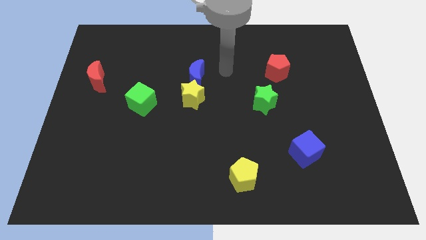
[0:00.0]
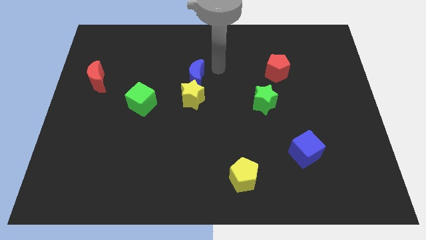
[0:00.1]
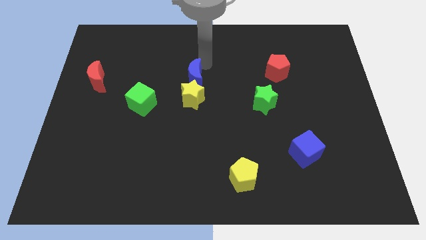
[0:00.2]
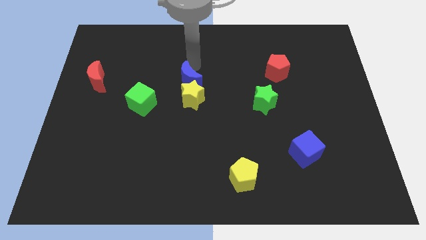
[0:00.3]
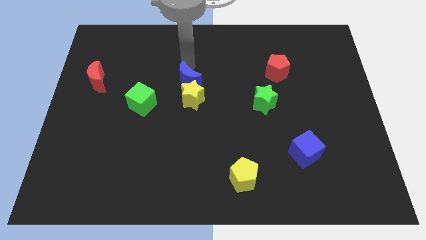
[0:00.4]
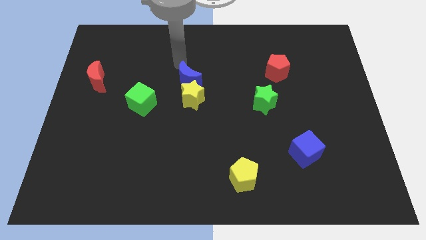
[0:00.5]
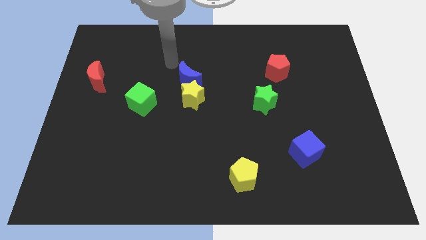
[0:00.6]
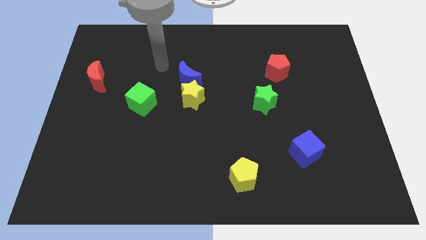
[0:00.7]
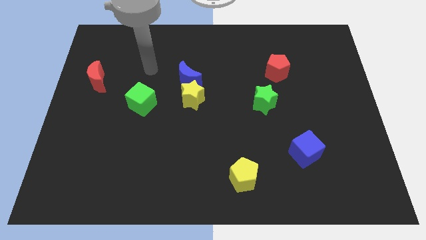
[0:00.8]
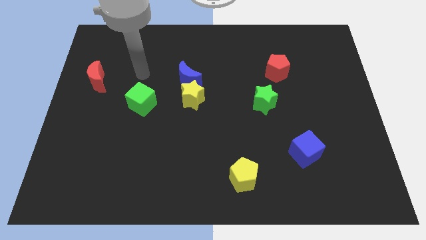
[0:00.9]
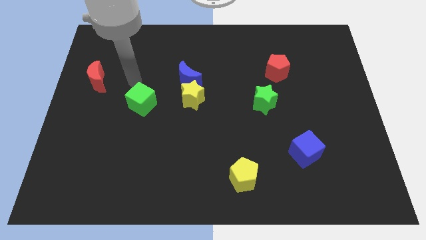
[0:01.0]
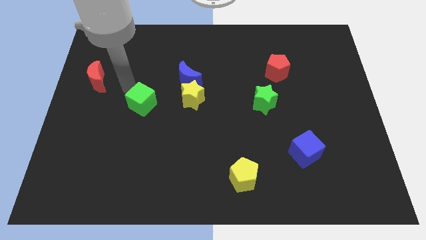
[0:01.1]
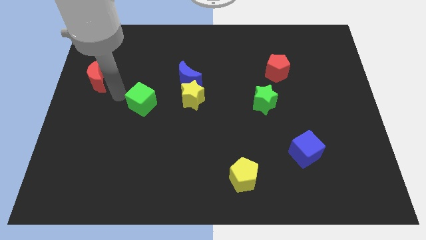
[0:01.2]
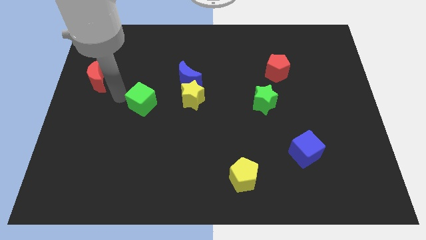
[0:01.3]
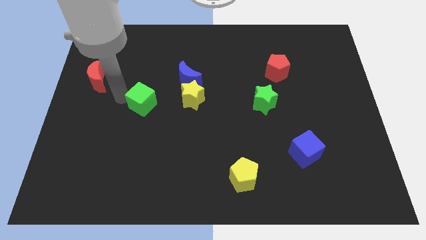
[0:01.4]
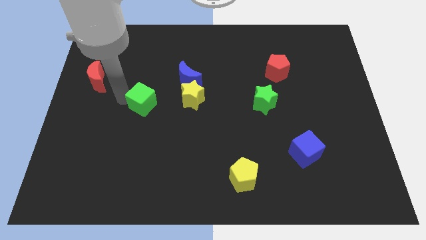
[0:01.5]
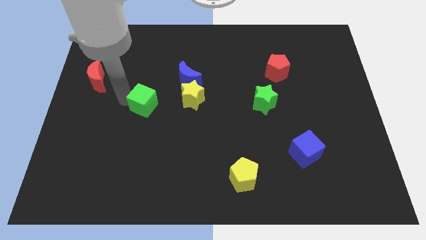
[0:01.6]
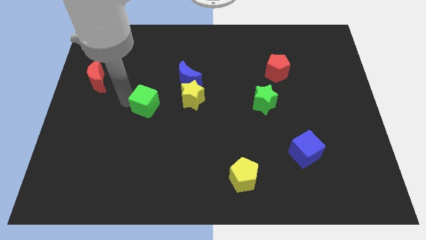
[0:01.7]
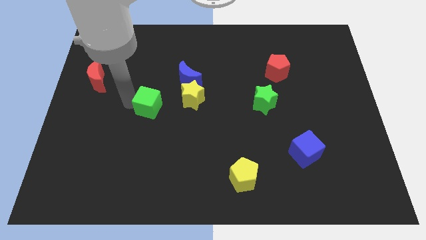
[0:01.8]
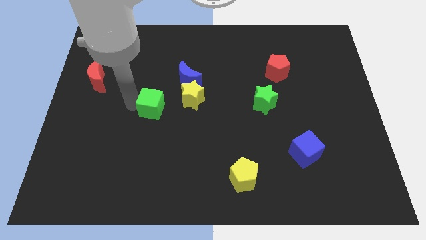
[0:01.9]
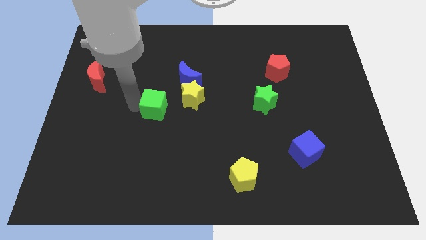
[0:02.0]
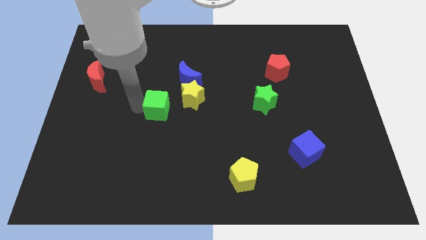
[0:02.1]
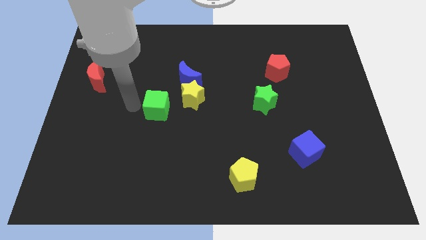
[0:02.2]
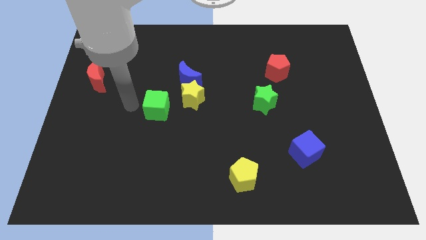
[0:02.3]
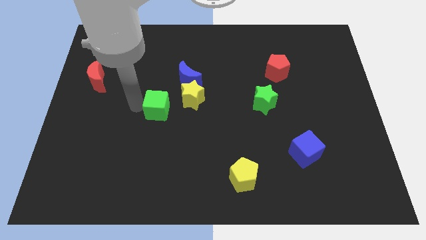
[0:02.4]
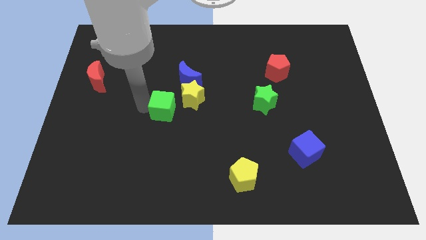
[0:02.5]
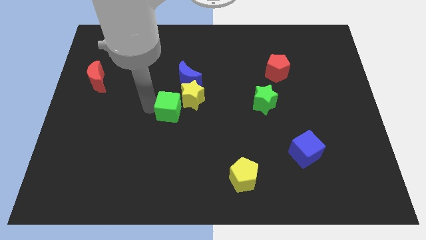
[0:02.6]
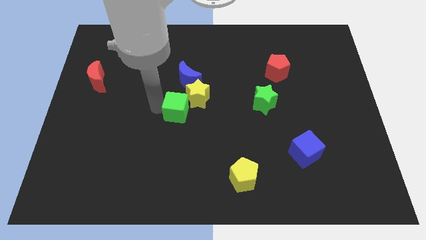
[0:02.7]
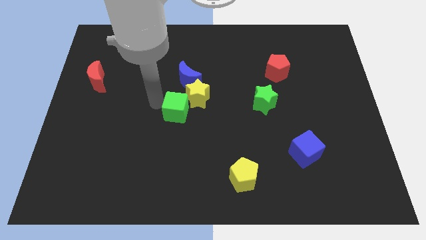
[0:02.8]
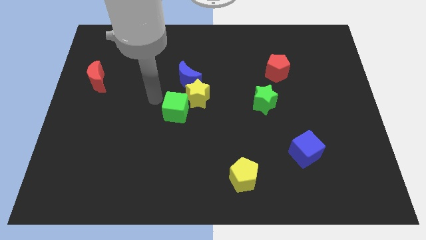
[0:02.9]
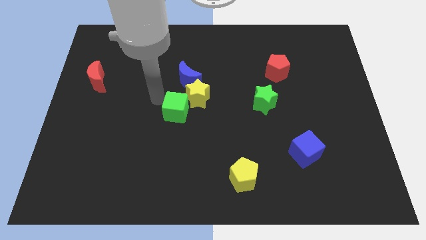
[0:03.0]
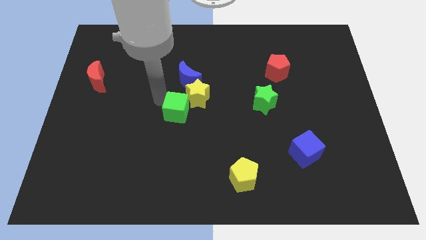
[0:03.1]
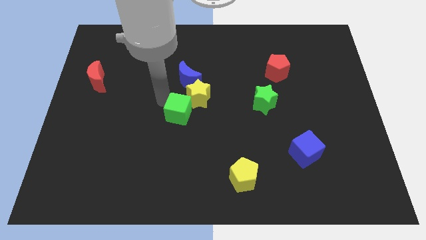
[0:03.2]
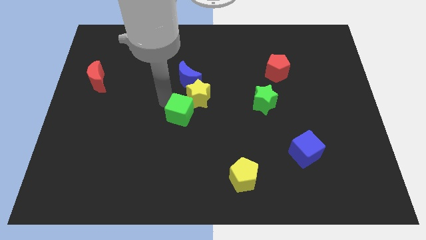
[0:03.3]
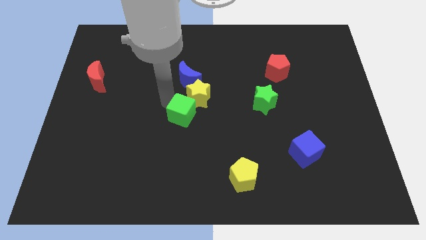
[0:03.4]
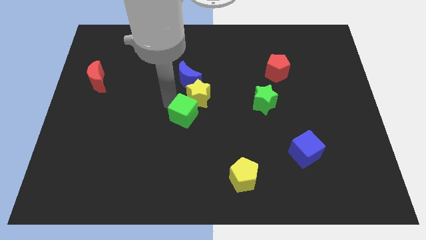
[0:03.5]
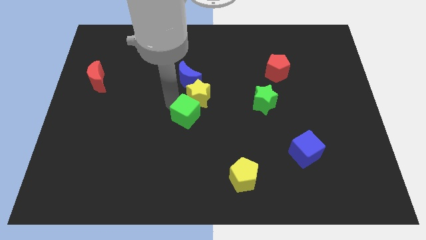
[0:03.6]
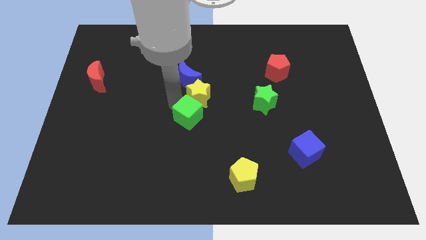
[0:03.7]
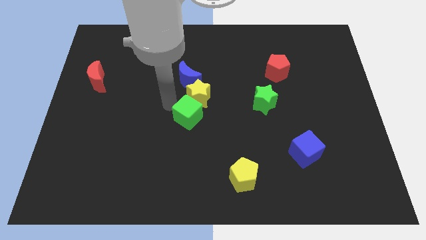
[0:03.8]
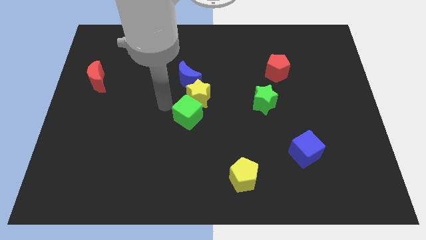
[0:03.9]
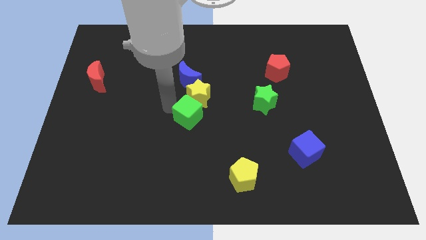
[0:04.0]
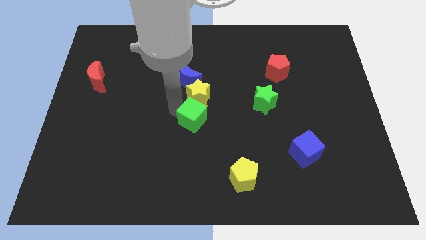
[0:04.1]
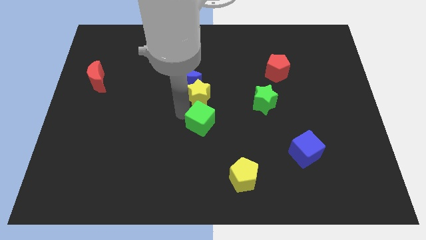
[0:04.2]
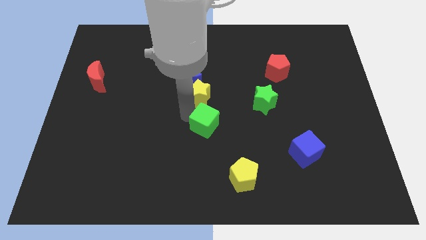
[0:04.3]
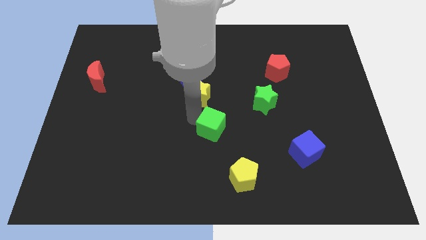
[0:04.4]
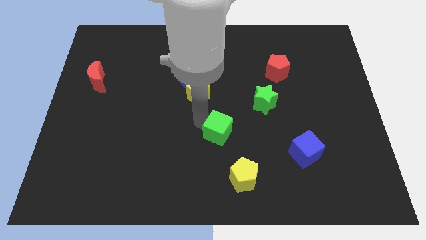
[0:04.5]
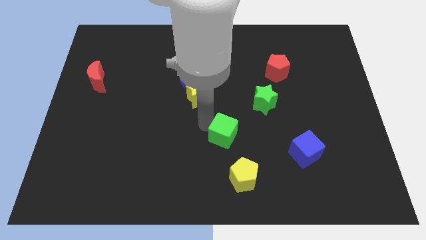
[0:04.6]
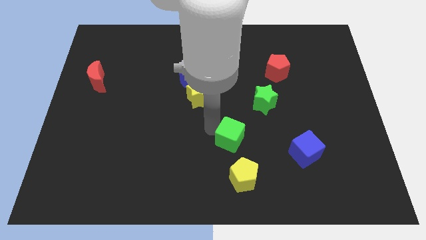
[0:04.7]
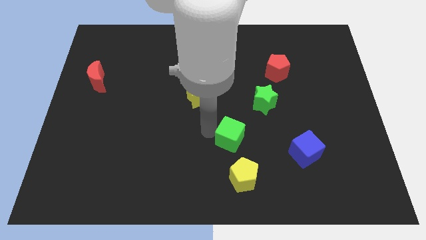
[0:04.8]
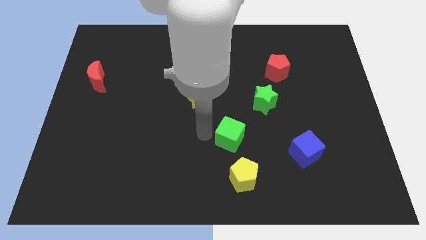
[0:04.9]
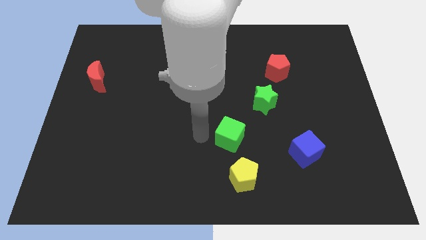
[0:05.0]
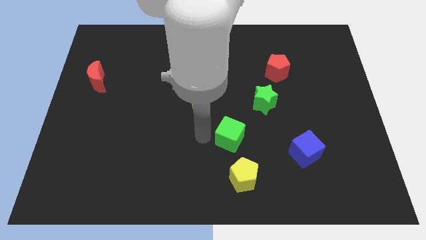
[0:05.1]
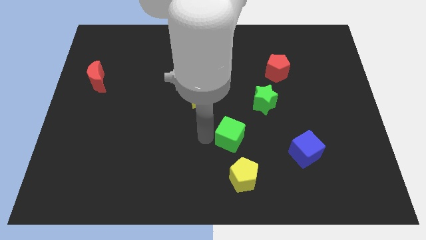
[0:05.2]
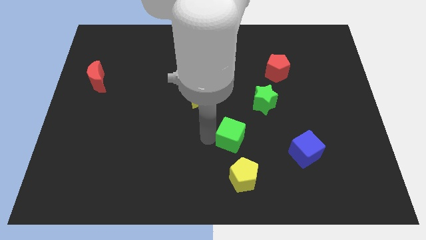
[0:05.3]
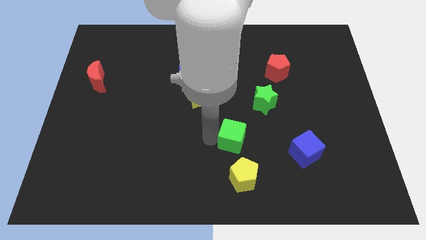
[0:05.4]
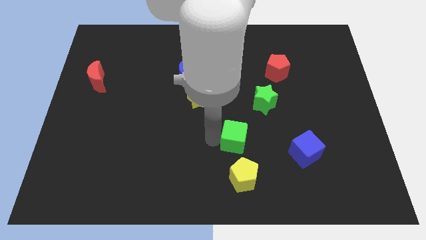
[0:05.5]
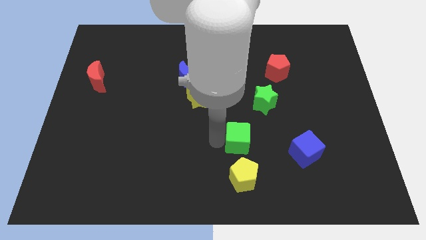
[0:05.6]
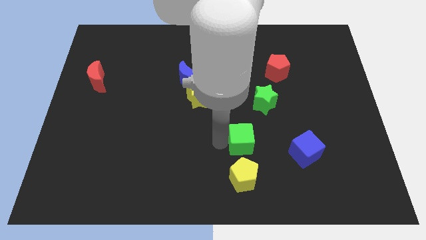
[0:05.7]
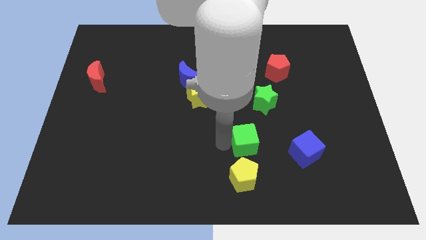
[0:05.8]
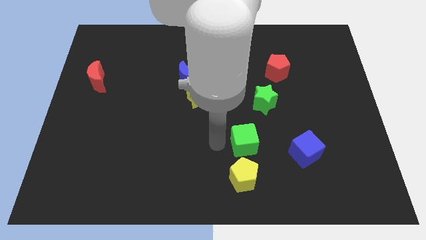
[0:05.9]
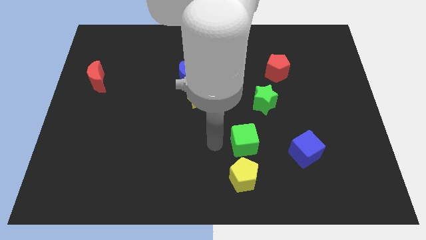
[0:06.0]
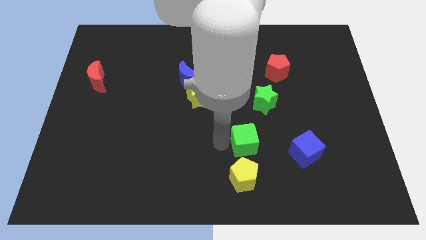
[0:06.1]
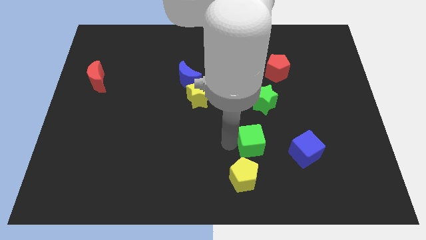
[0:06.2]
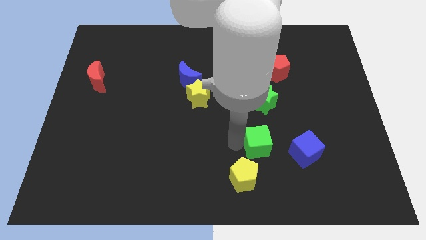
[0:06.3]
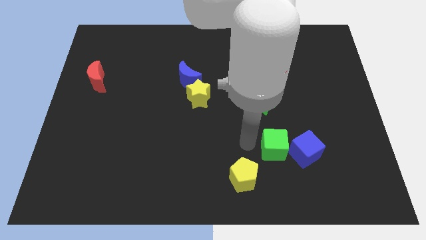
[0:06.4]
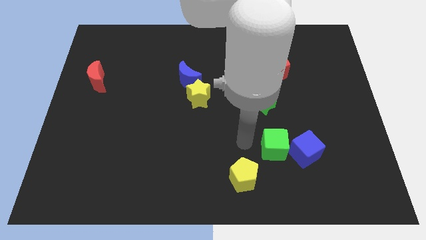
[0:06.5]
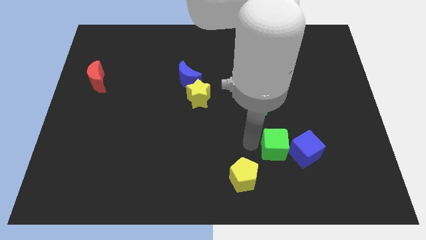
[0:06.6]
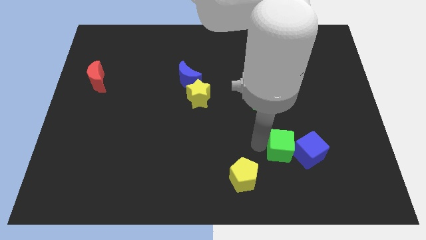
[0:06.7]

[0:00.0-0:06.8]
slide the green cube close to the blue cube

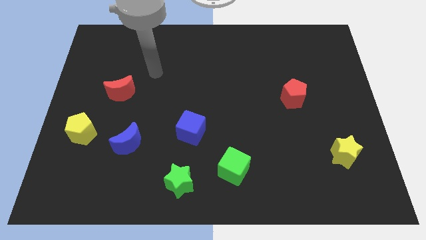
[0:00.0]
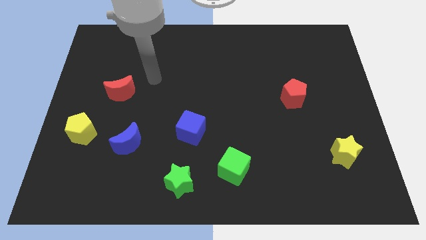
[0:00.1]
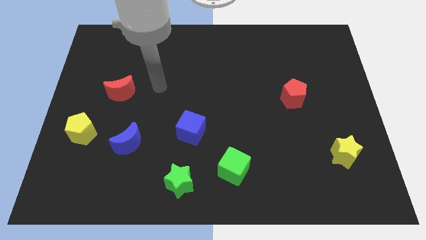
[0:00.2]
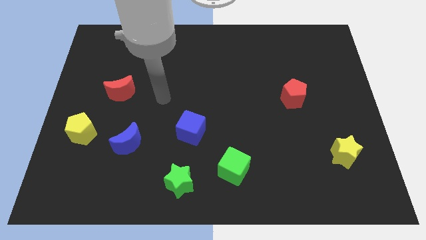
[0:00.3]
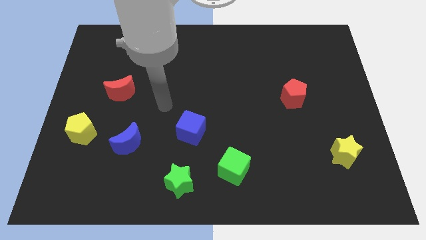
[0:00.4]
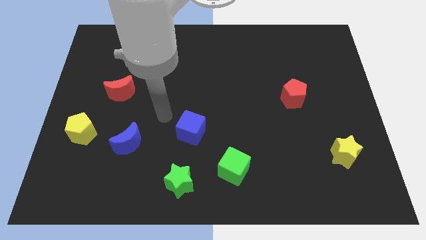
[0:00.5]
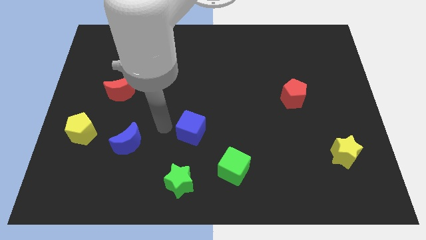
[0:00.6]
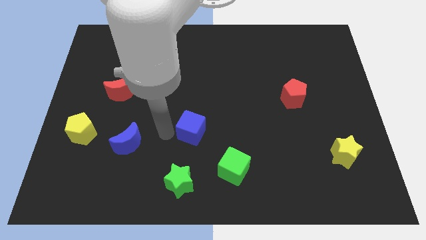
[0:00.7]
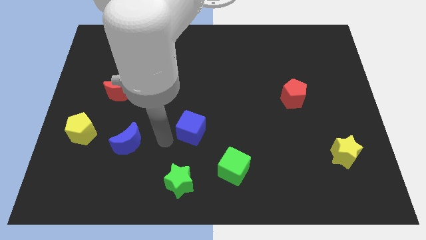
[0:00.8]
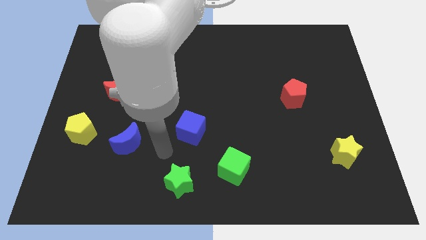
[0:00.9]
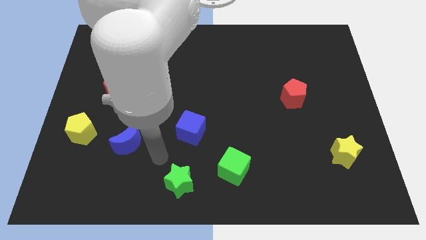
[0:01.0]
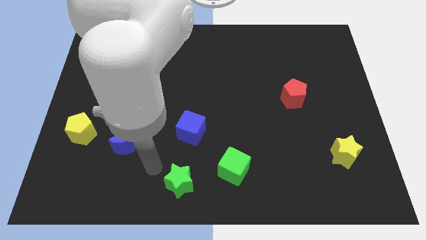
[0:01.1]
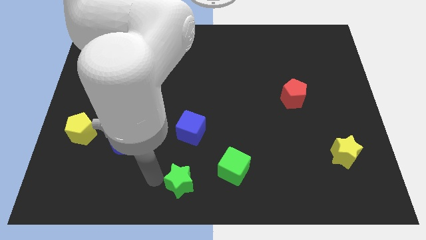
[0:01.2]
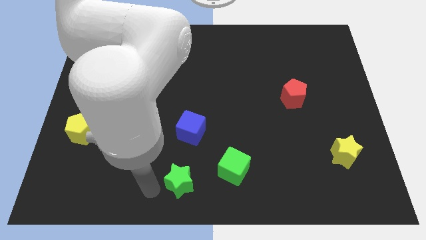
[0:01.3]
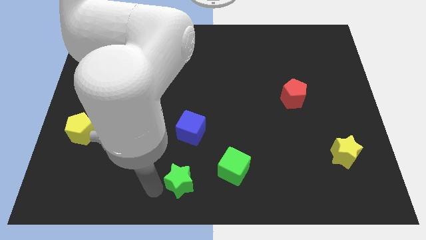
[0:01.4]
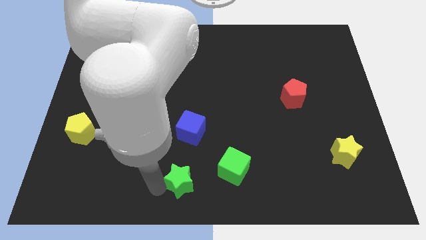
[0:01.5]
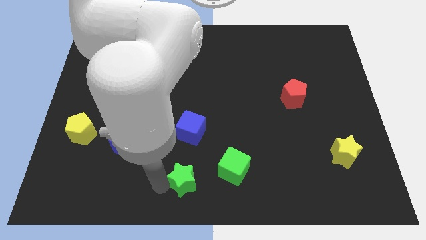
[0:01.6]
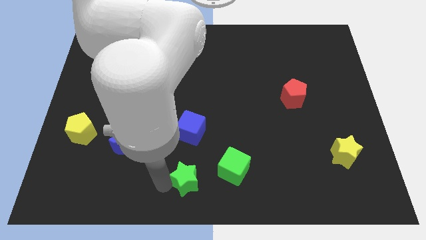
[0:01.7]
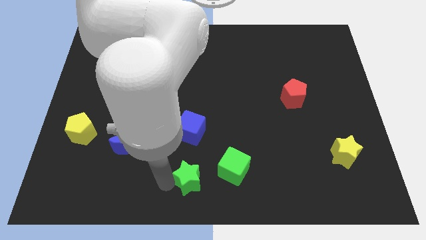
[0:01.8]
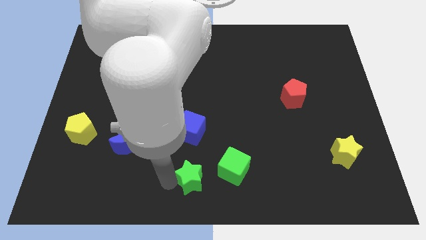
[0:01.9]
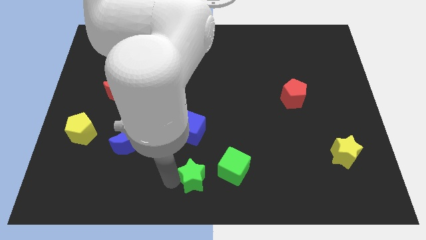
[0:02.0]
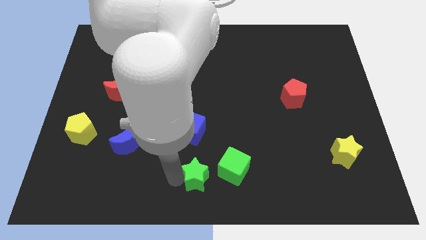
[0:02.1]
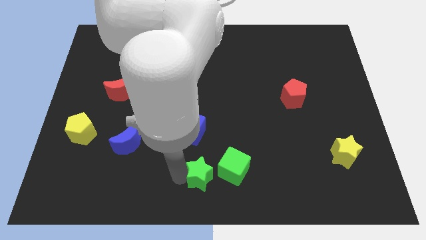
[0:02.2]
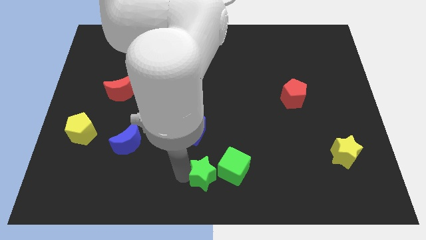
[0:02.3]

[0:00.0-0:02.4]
put the green star to the green cube
